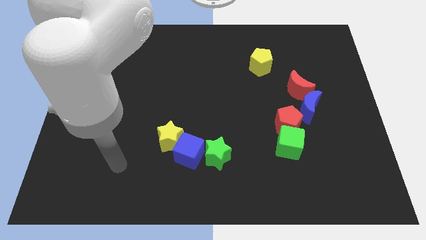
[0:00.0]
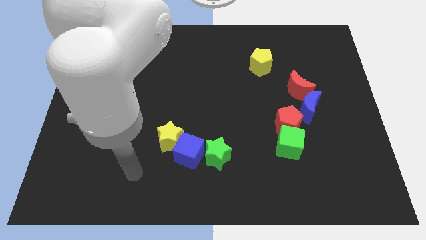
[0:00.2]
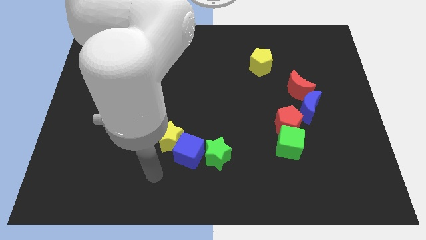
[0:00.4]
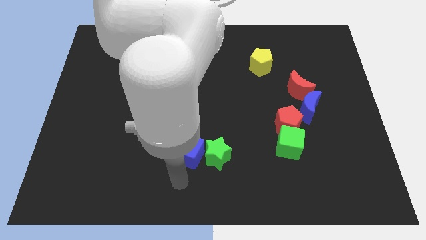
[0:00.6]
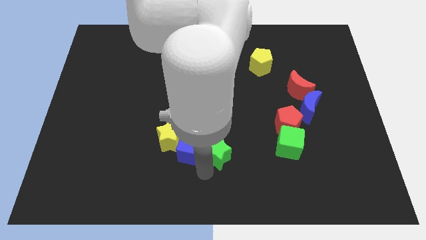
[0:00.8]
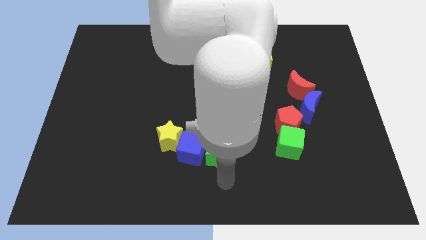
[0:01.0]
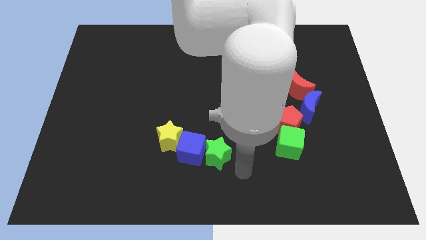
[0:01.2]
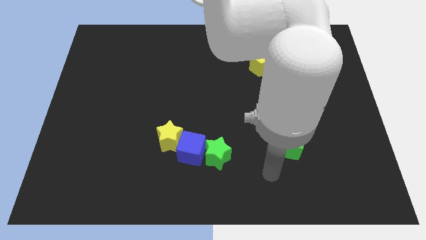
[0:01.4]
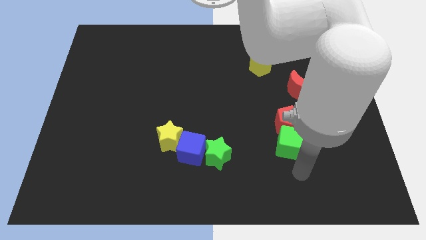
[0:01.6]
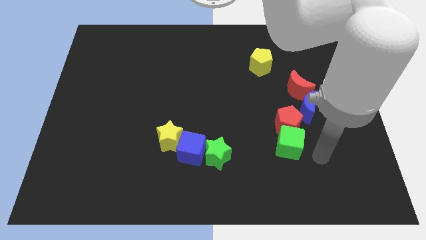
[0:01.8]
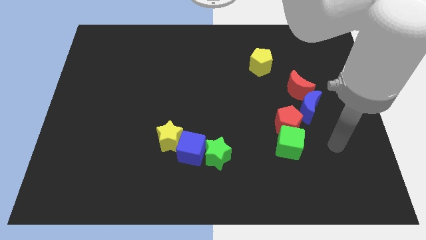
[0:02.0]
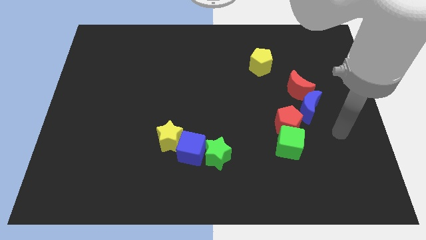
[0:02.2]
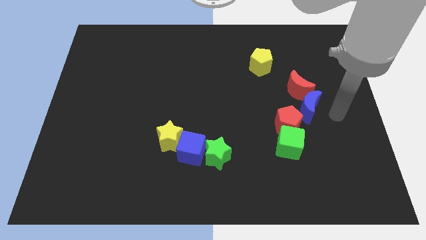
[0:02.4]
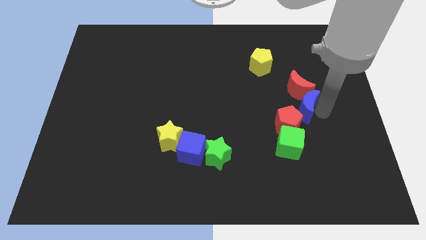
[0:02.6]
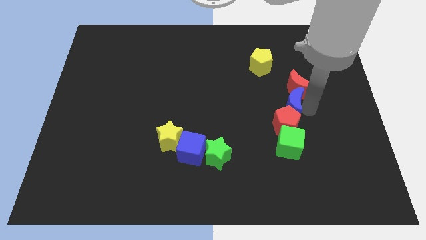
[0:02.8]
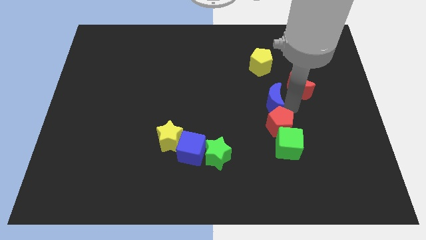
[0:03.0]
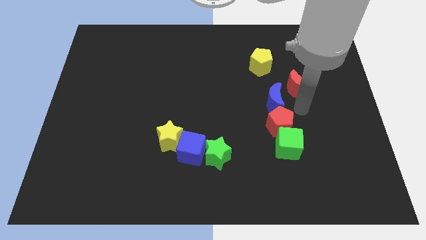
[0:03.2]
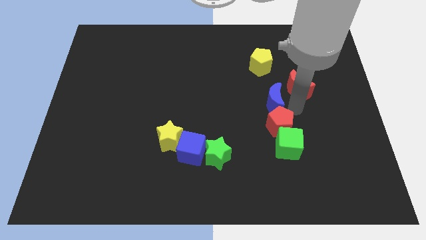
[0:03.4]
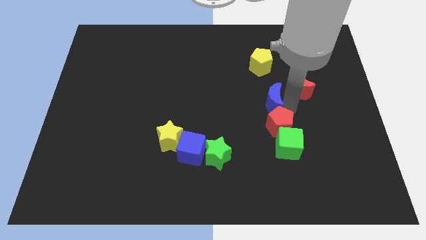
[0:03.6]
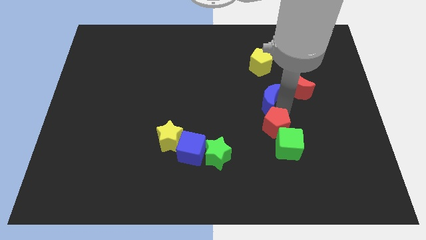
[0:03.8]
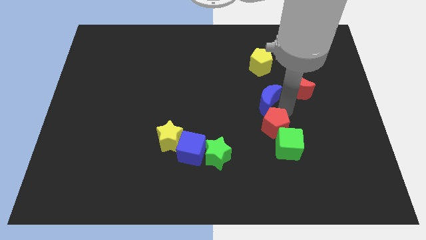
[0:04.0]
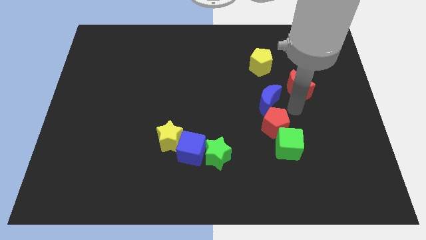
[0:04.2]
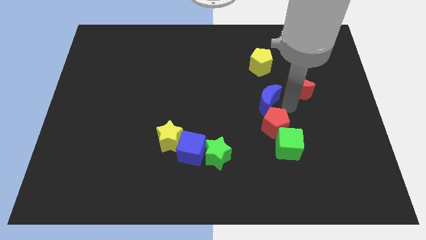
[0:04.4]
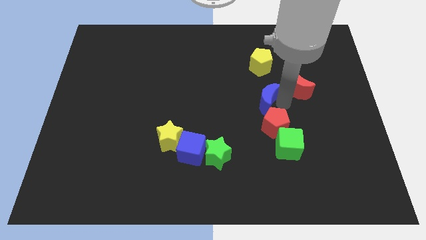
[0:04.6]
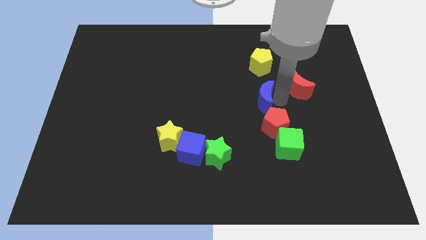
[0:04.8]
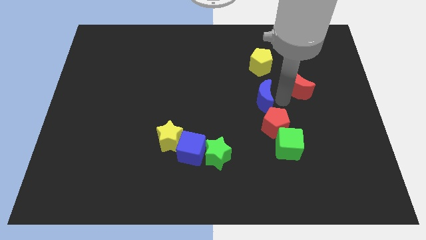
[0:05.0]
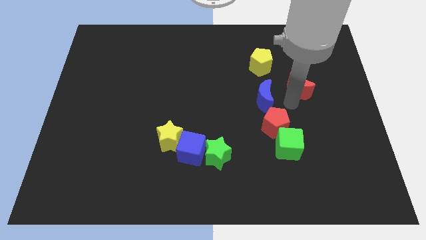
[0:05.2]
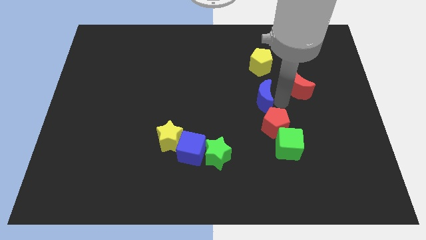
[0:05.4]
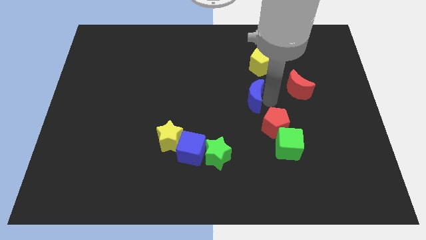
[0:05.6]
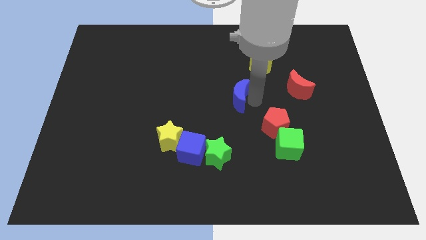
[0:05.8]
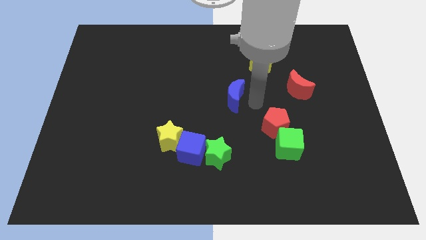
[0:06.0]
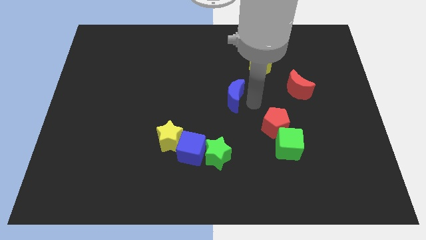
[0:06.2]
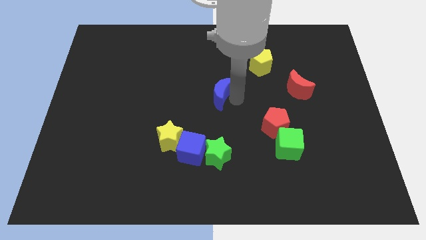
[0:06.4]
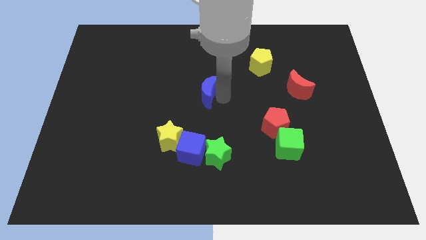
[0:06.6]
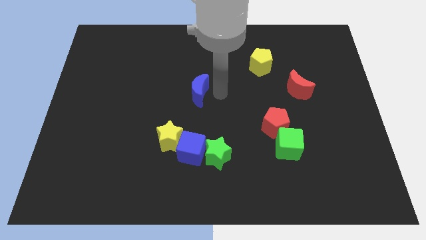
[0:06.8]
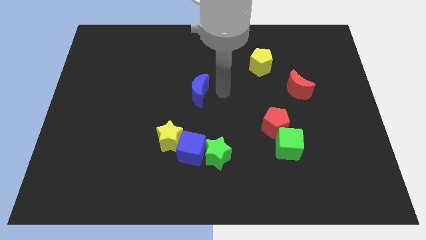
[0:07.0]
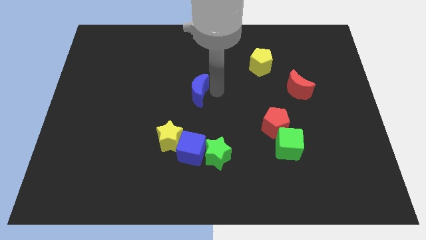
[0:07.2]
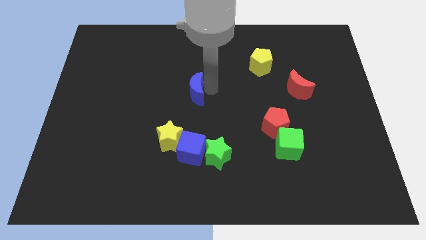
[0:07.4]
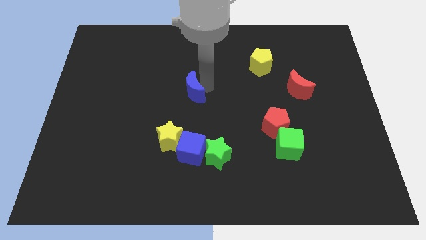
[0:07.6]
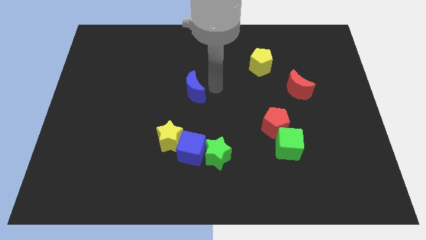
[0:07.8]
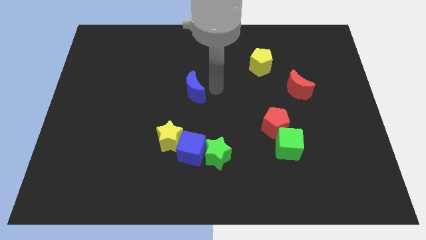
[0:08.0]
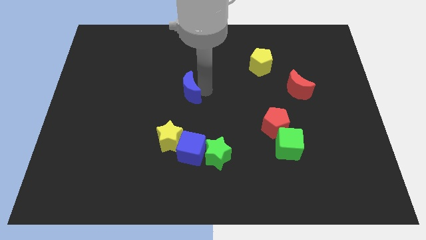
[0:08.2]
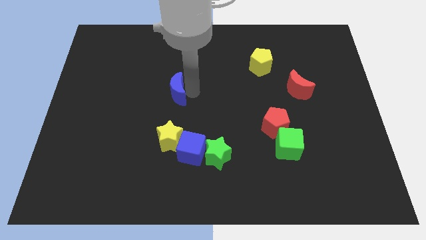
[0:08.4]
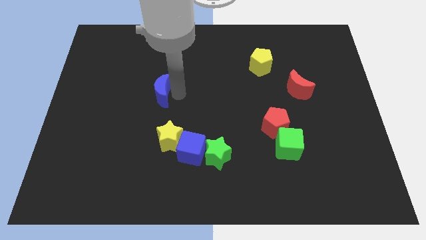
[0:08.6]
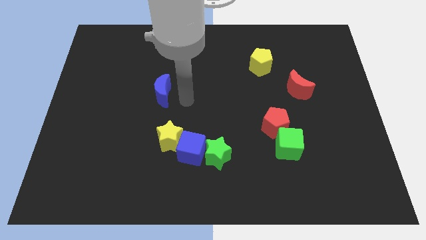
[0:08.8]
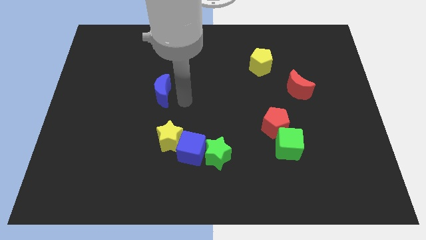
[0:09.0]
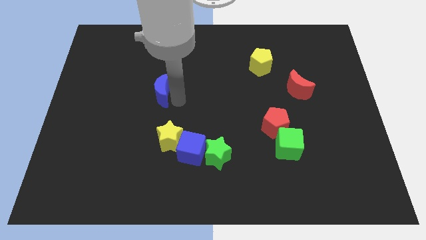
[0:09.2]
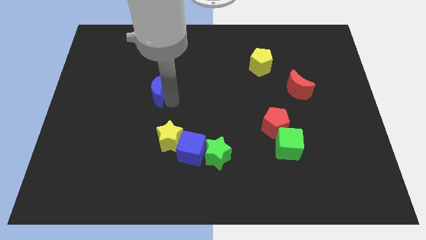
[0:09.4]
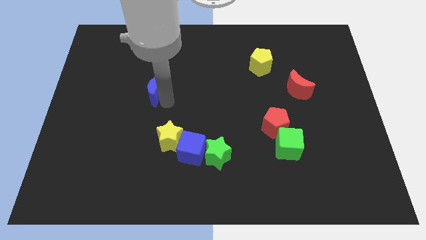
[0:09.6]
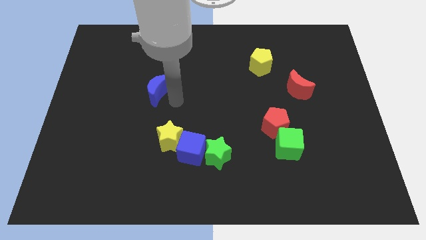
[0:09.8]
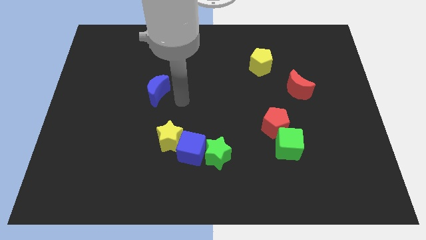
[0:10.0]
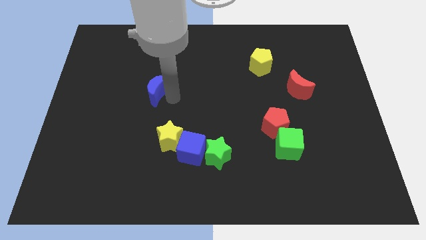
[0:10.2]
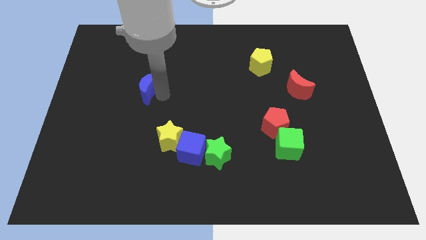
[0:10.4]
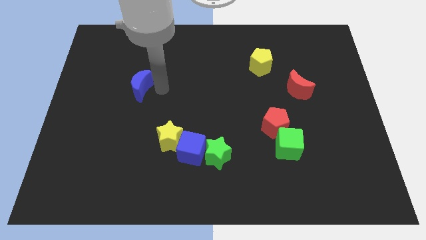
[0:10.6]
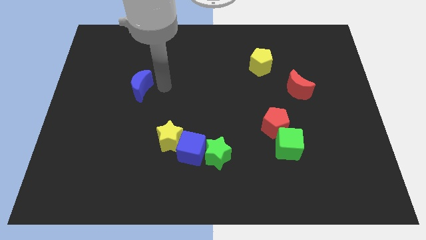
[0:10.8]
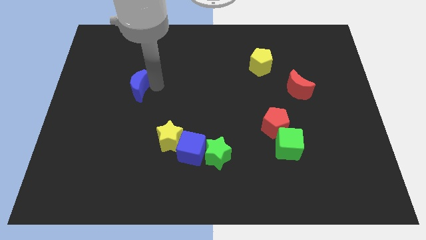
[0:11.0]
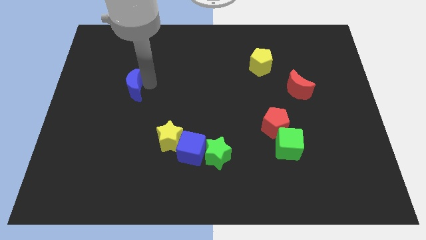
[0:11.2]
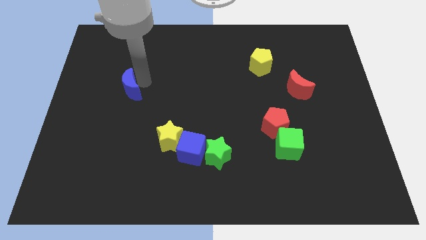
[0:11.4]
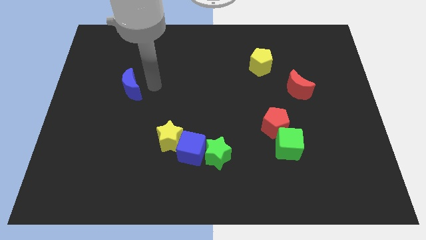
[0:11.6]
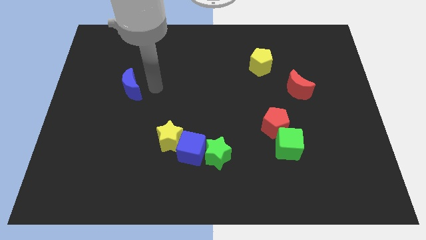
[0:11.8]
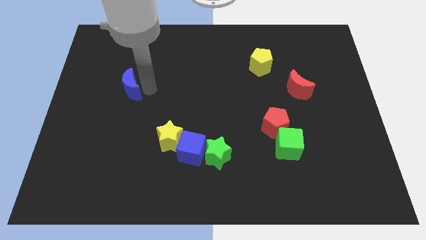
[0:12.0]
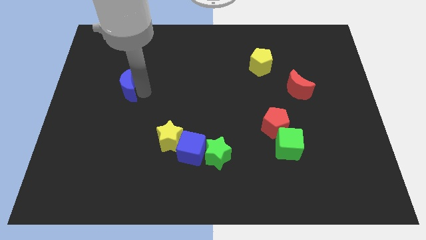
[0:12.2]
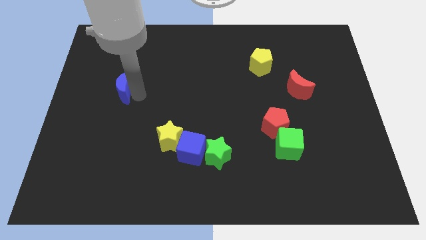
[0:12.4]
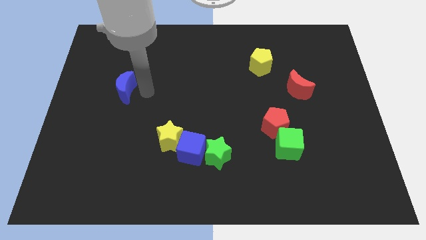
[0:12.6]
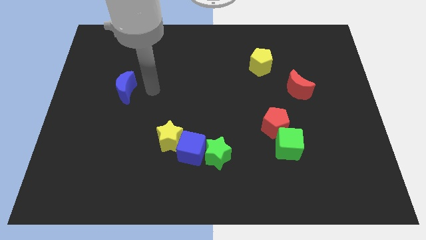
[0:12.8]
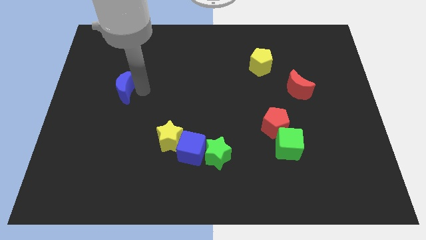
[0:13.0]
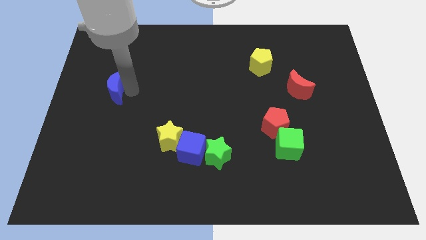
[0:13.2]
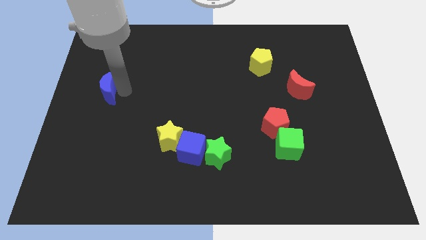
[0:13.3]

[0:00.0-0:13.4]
move the blue moon to the left side of the board

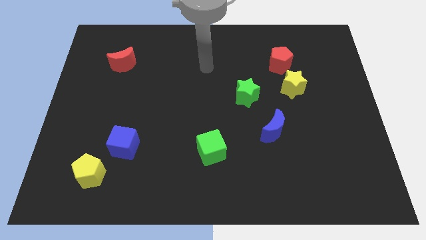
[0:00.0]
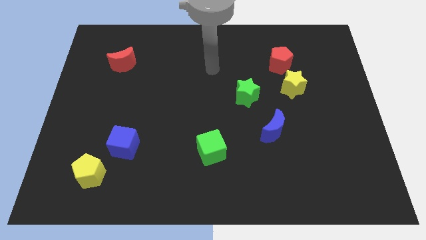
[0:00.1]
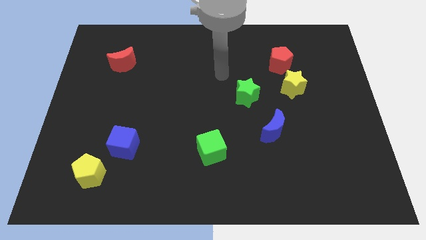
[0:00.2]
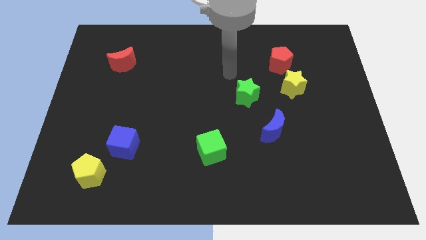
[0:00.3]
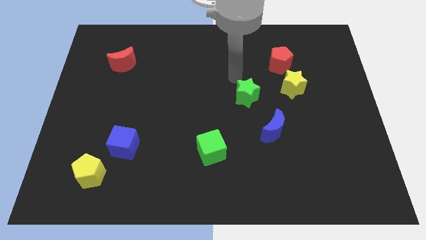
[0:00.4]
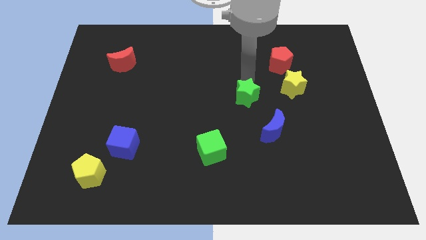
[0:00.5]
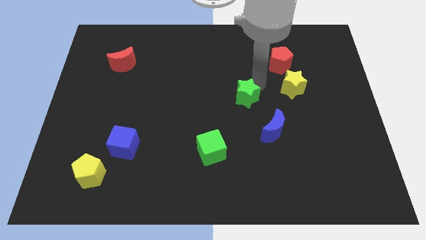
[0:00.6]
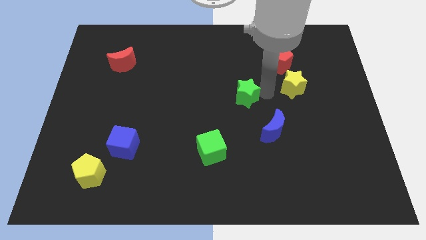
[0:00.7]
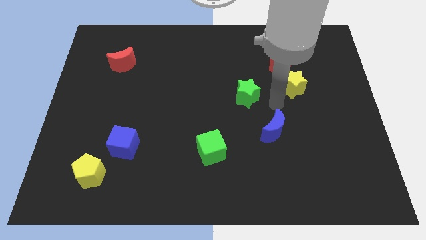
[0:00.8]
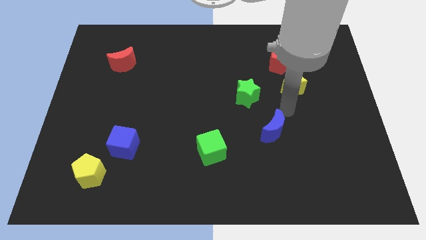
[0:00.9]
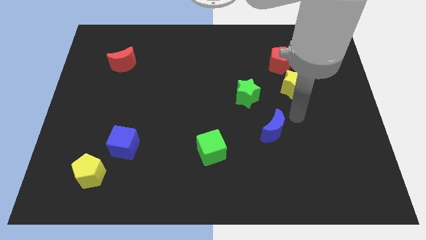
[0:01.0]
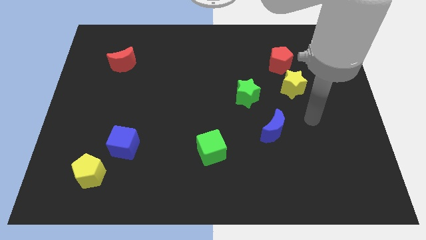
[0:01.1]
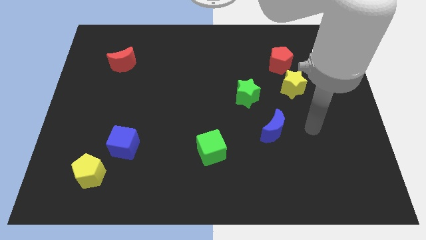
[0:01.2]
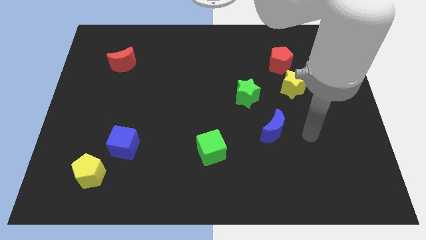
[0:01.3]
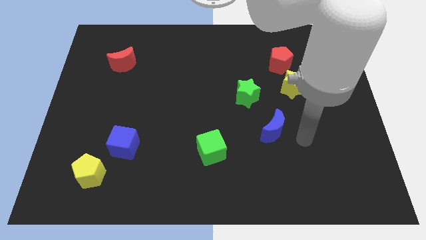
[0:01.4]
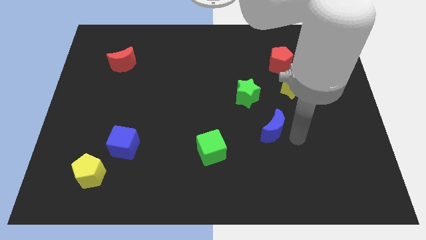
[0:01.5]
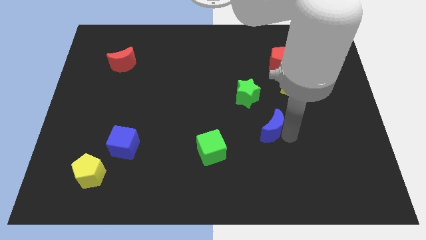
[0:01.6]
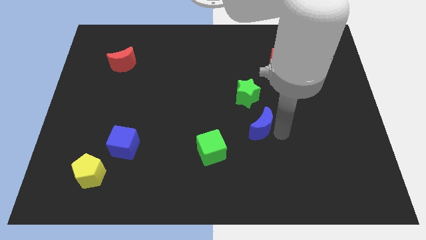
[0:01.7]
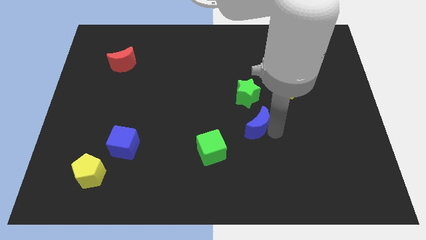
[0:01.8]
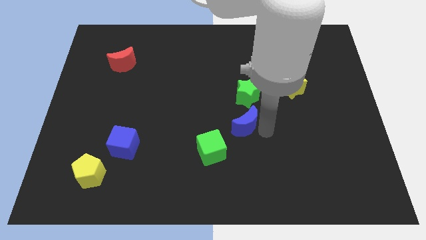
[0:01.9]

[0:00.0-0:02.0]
push the blue moon to the middle
